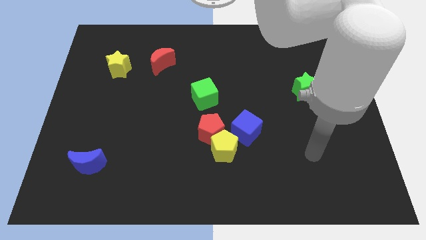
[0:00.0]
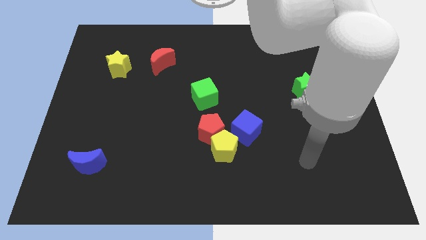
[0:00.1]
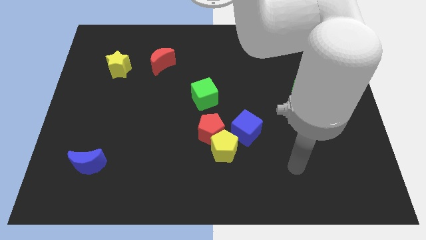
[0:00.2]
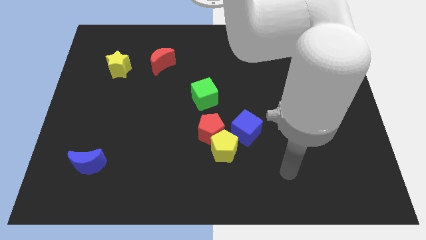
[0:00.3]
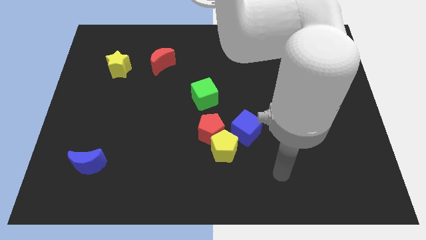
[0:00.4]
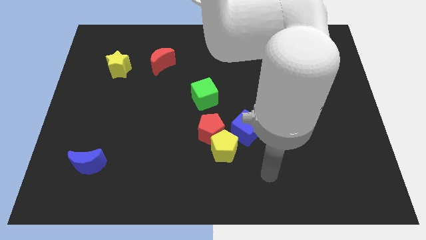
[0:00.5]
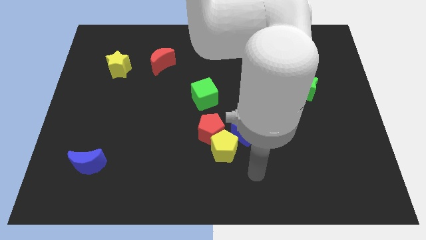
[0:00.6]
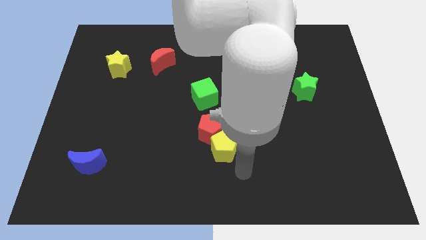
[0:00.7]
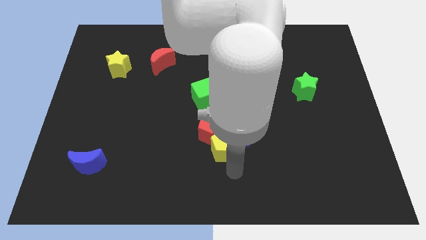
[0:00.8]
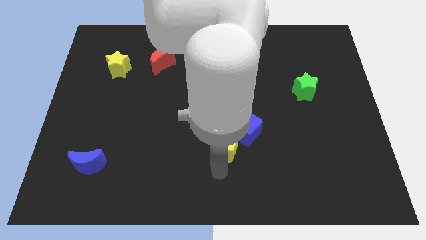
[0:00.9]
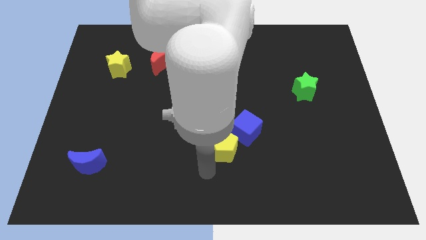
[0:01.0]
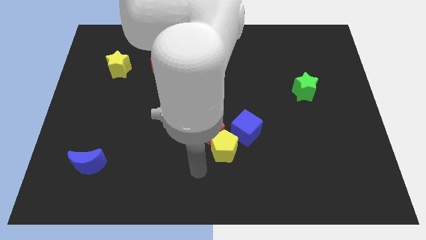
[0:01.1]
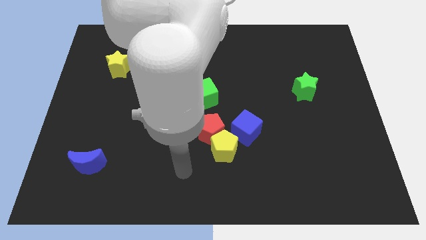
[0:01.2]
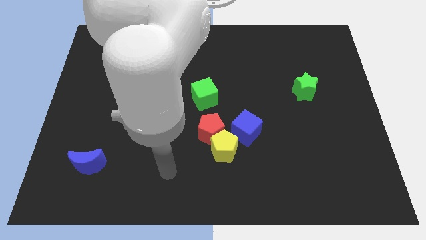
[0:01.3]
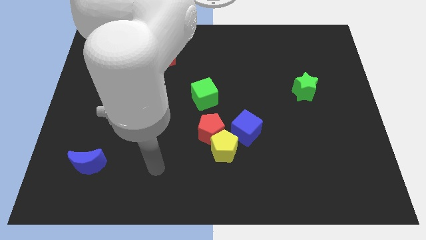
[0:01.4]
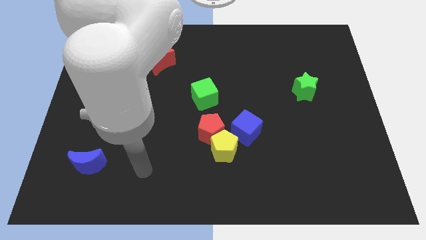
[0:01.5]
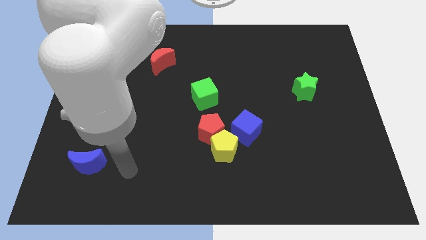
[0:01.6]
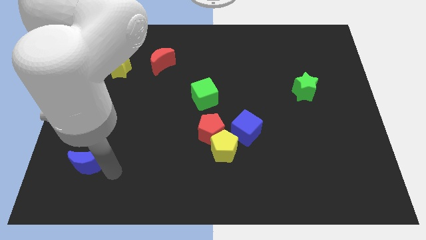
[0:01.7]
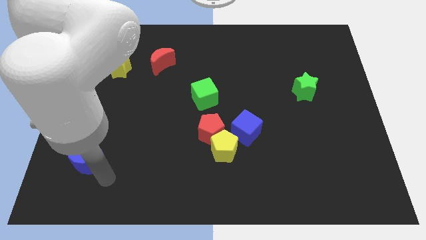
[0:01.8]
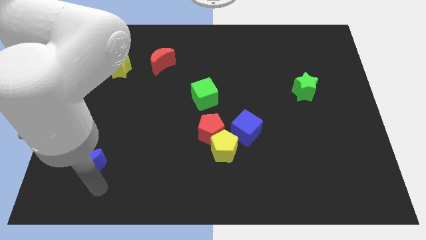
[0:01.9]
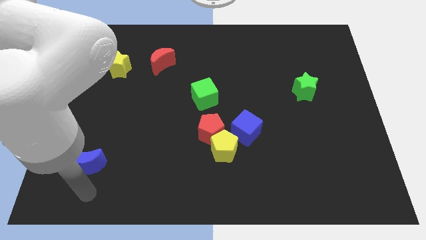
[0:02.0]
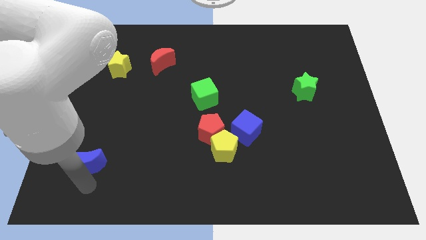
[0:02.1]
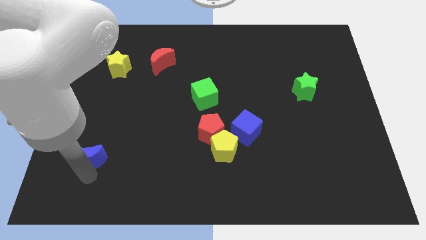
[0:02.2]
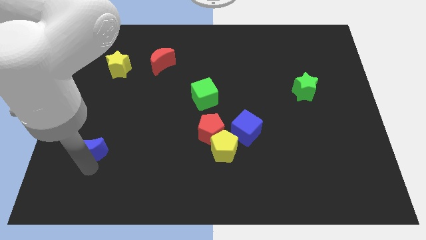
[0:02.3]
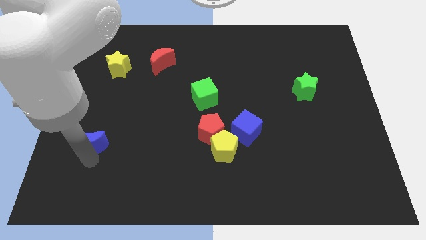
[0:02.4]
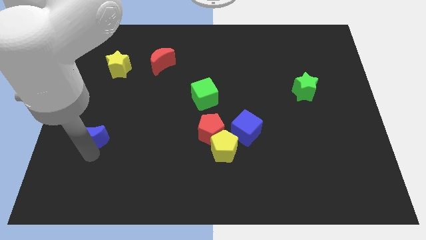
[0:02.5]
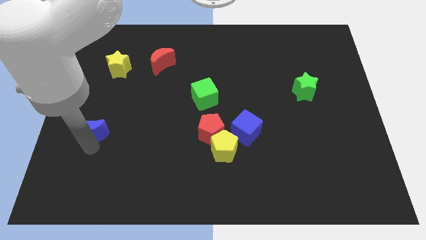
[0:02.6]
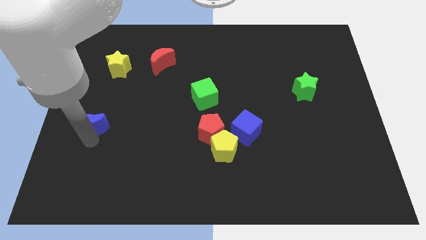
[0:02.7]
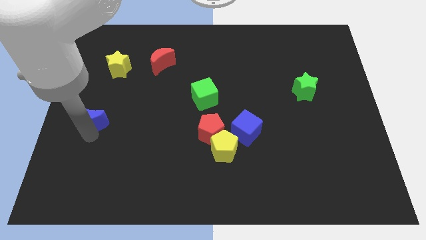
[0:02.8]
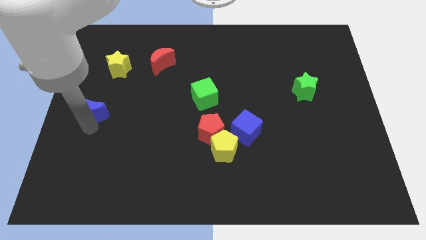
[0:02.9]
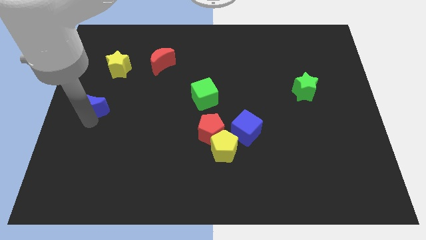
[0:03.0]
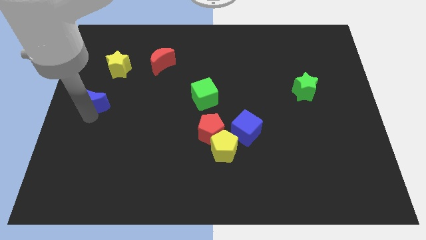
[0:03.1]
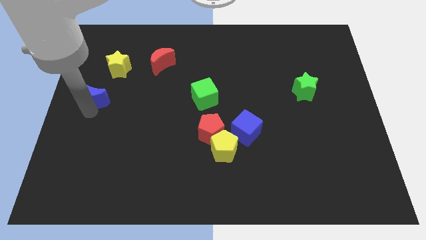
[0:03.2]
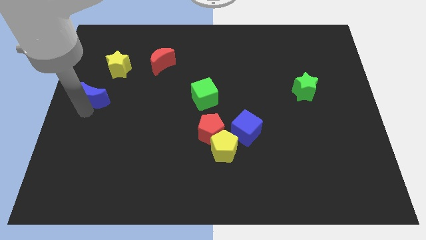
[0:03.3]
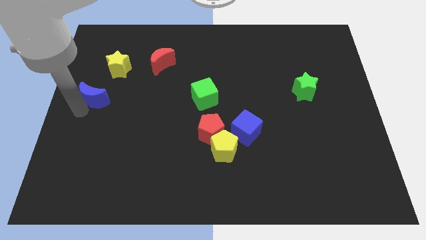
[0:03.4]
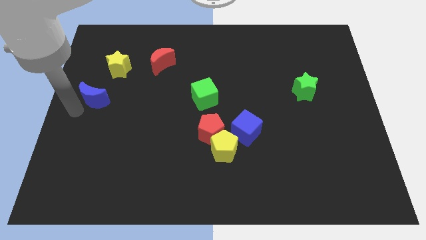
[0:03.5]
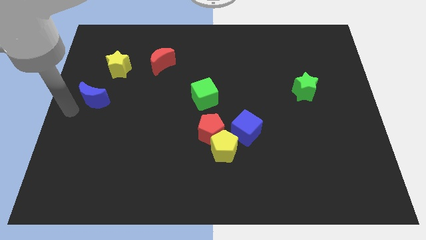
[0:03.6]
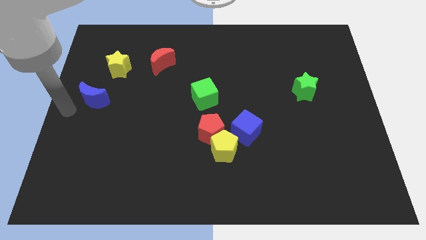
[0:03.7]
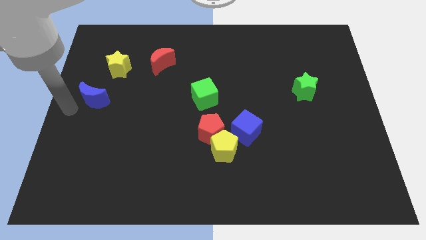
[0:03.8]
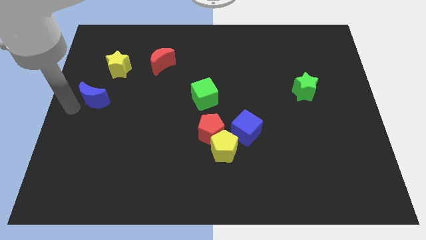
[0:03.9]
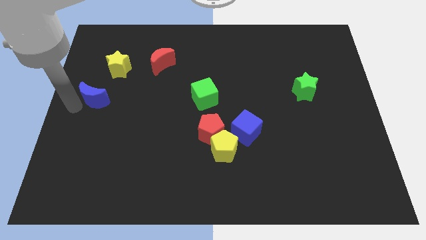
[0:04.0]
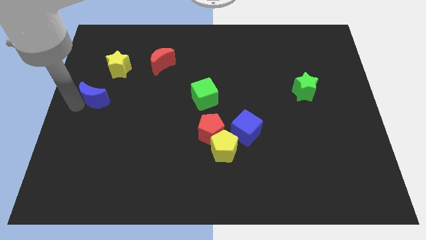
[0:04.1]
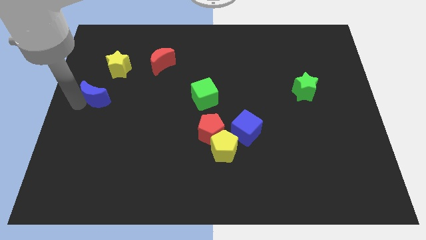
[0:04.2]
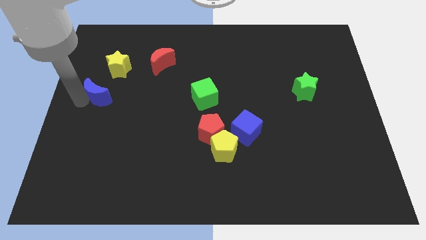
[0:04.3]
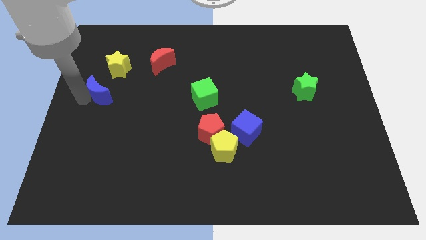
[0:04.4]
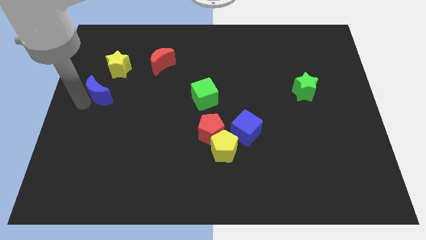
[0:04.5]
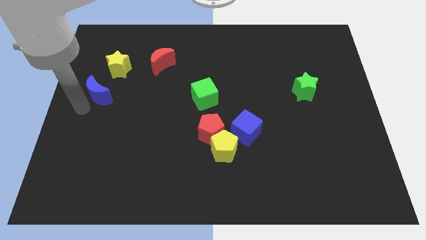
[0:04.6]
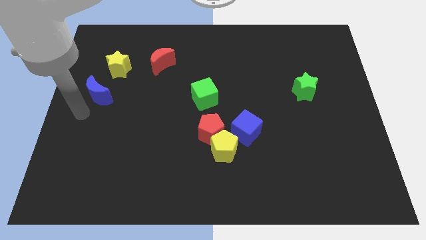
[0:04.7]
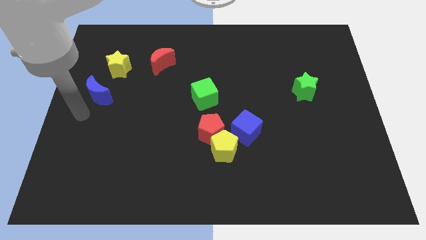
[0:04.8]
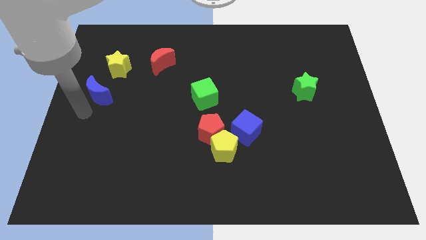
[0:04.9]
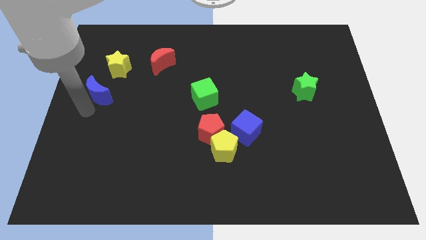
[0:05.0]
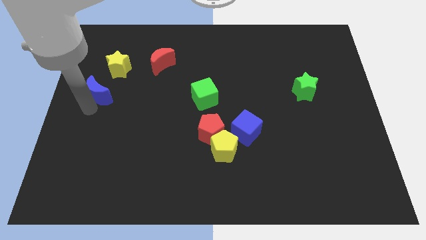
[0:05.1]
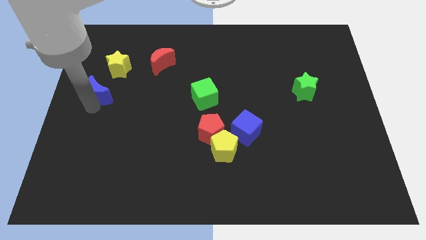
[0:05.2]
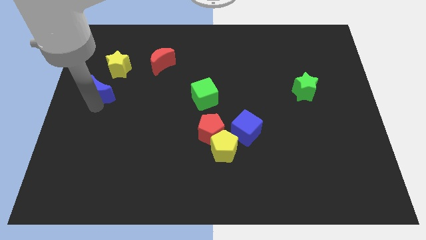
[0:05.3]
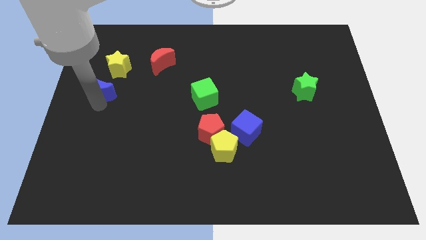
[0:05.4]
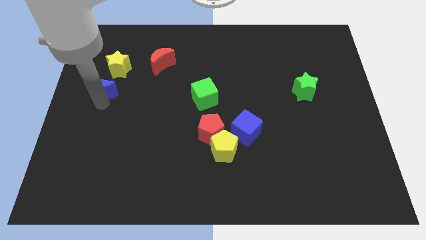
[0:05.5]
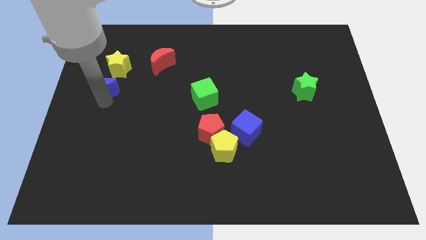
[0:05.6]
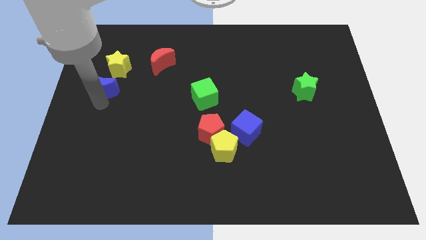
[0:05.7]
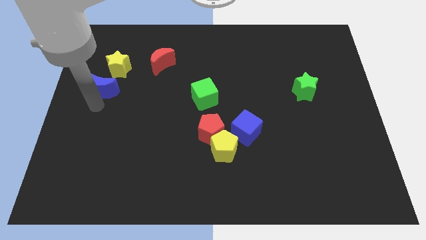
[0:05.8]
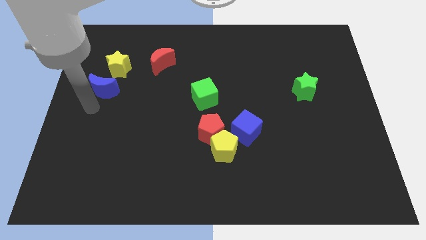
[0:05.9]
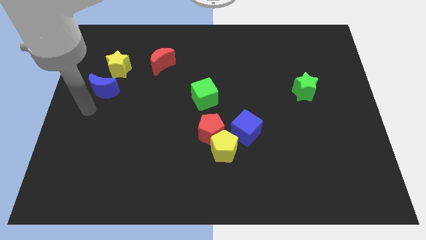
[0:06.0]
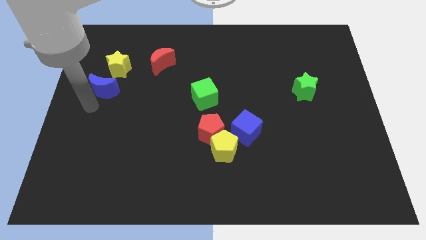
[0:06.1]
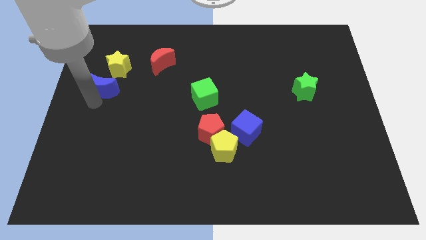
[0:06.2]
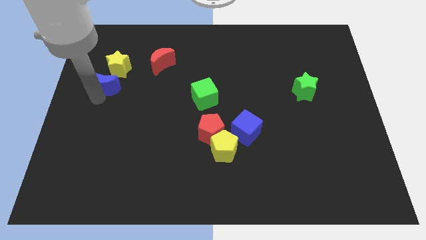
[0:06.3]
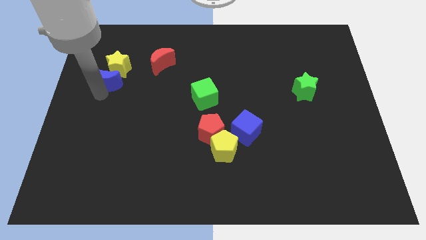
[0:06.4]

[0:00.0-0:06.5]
slide the blue moon next to the yellow star

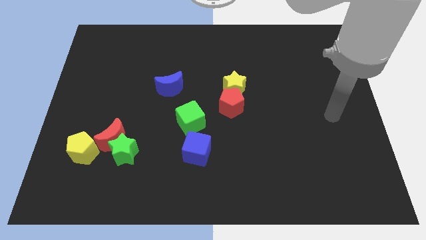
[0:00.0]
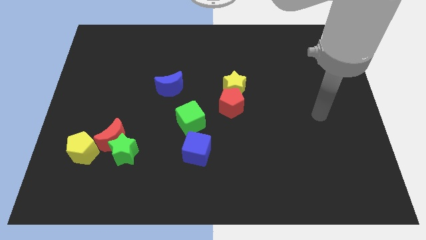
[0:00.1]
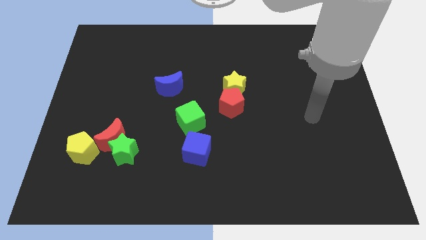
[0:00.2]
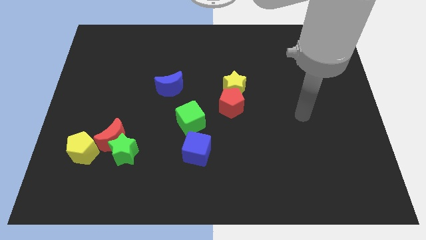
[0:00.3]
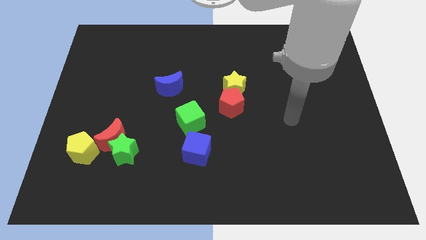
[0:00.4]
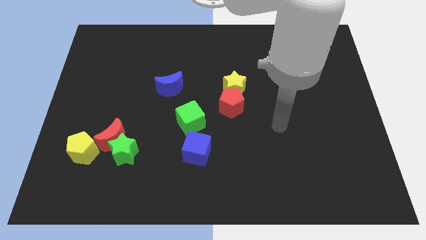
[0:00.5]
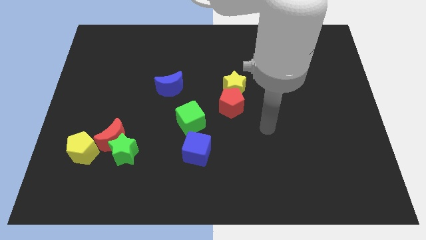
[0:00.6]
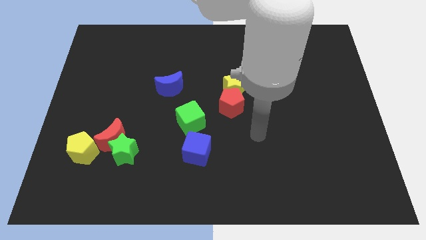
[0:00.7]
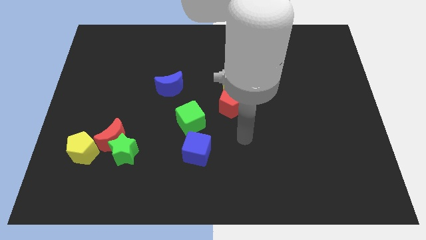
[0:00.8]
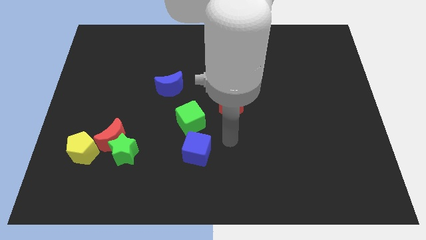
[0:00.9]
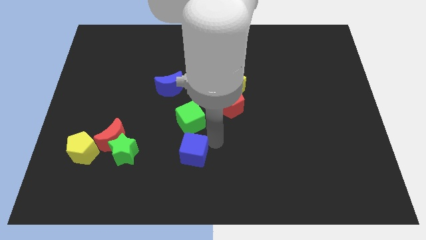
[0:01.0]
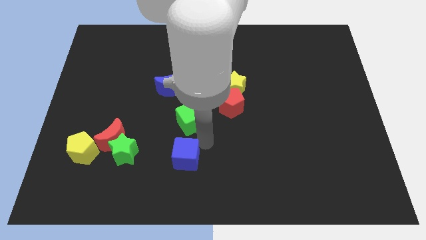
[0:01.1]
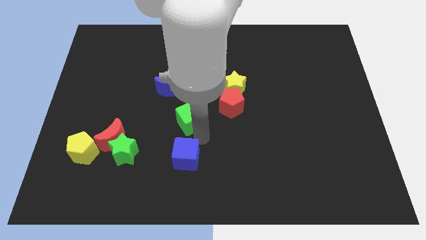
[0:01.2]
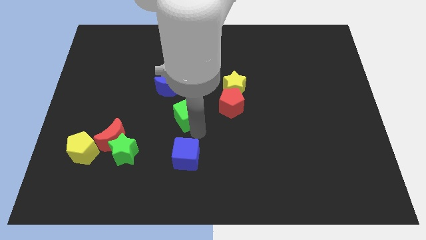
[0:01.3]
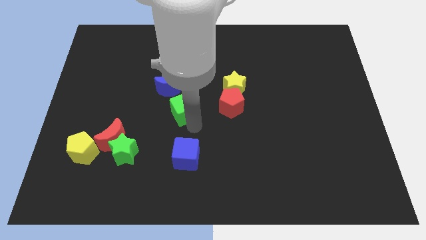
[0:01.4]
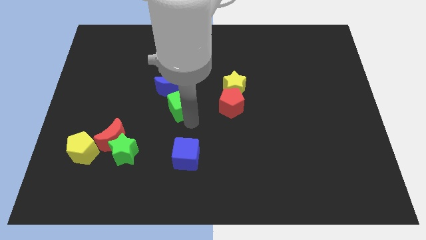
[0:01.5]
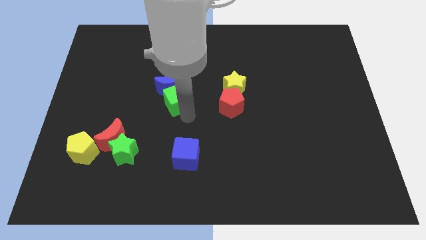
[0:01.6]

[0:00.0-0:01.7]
move the green cube close to the blue moon
